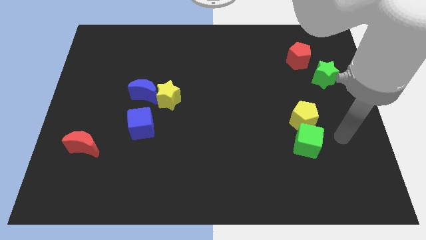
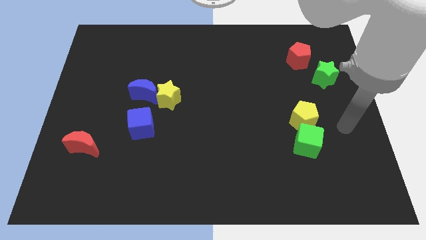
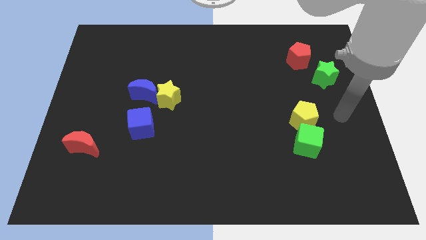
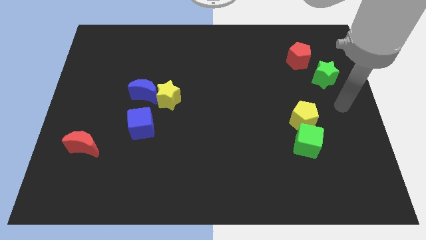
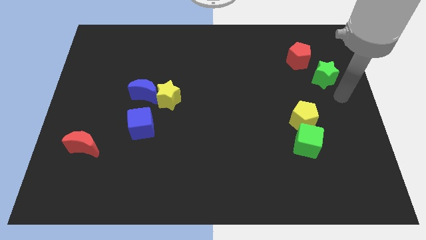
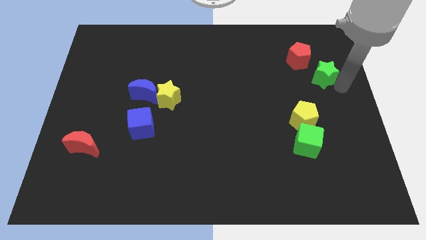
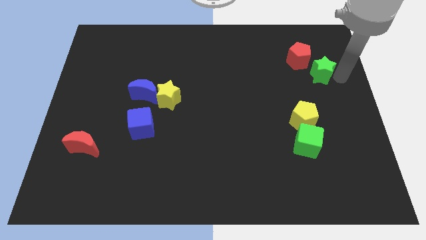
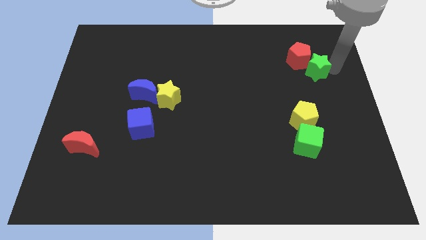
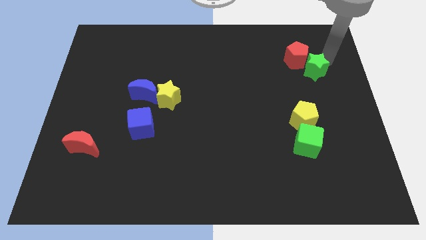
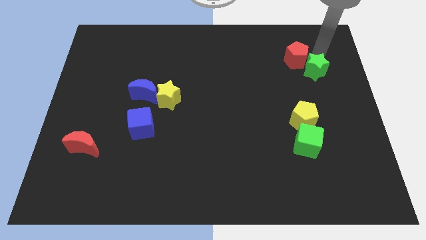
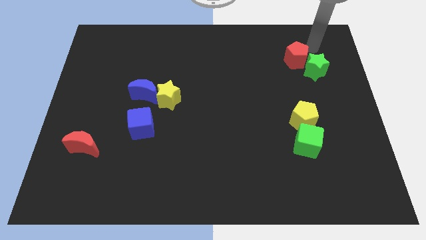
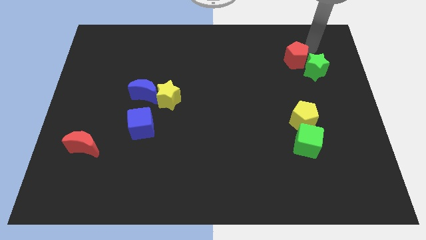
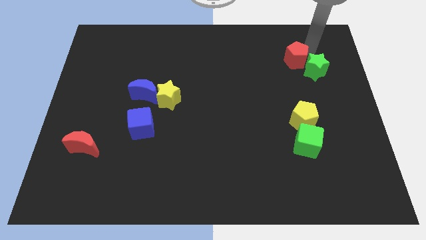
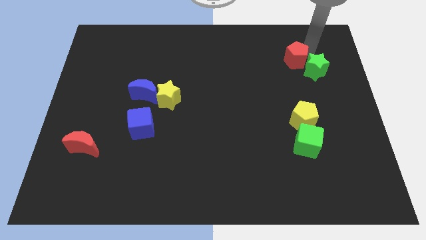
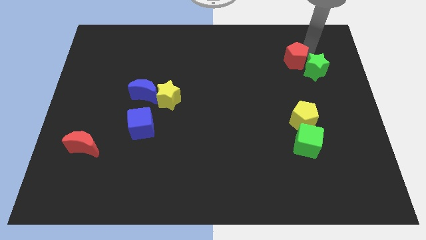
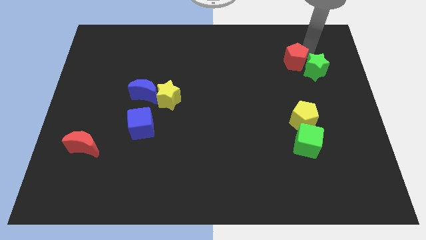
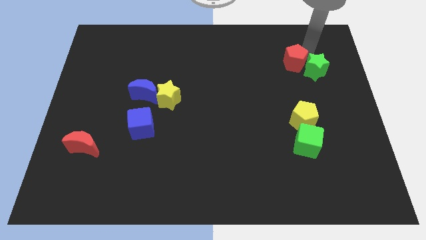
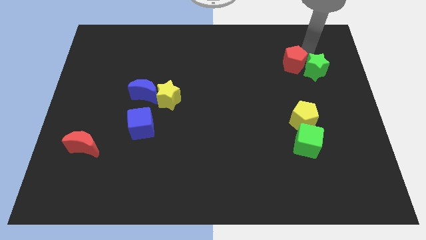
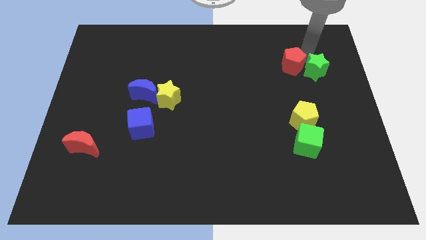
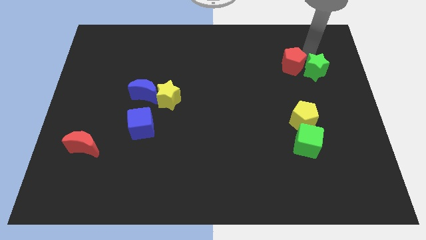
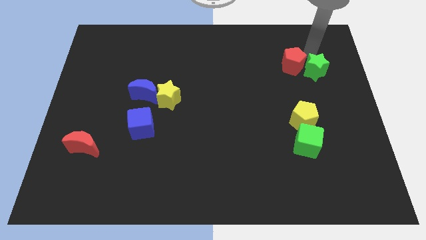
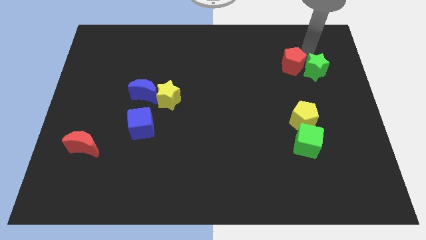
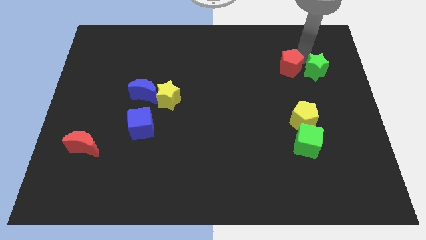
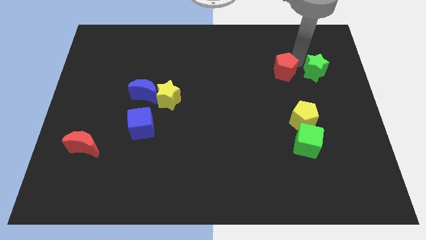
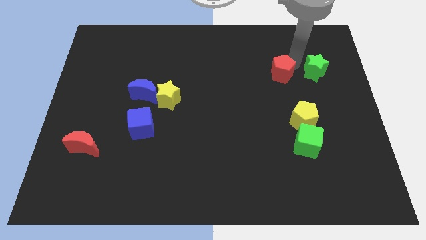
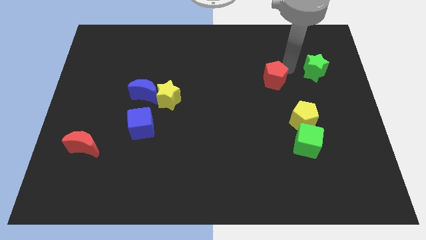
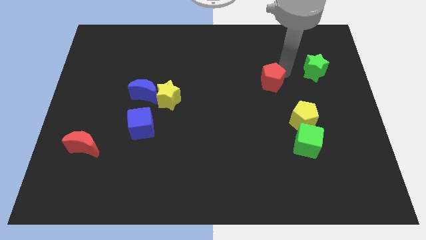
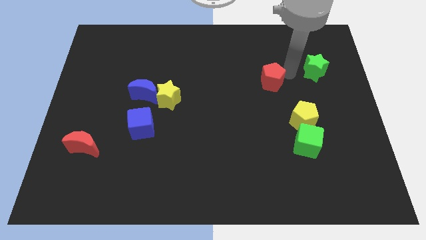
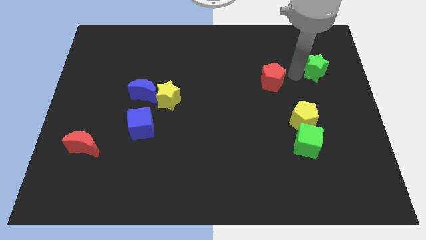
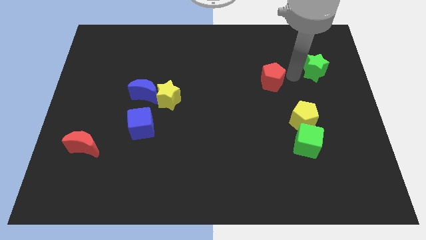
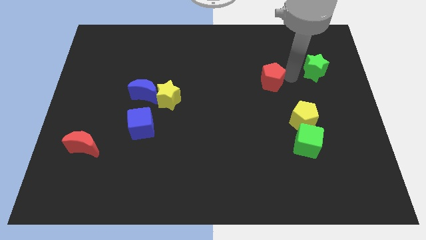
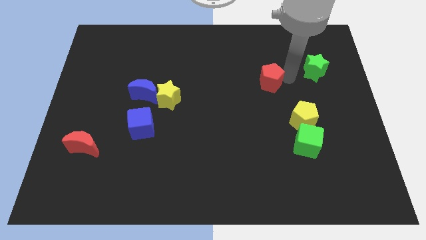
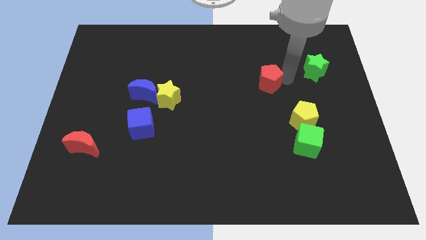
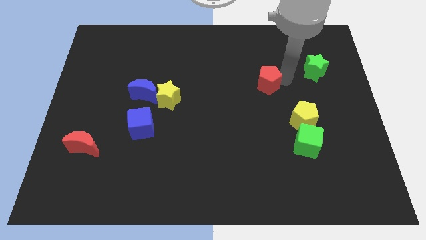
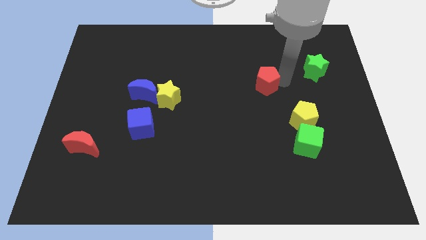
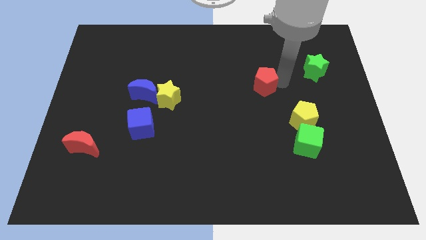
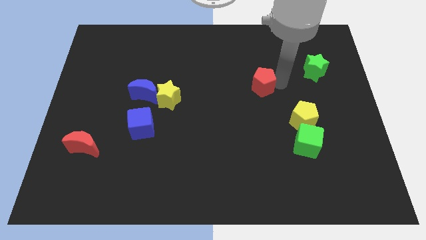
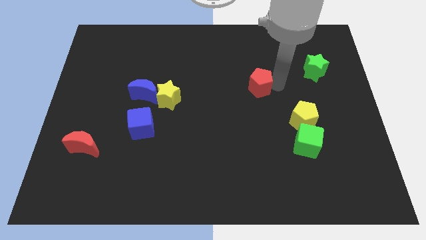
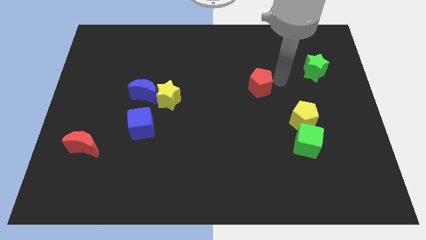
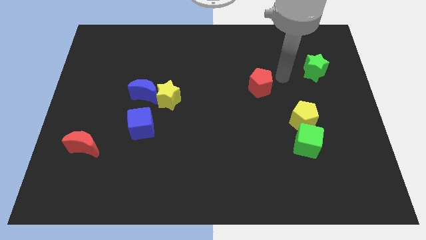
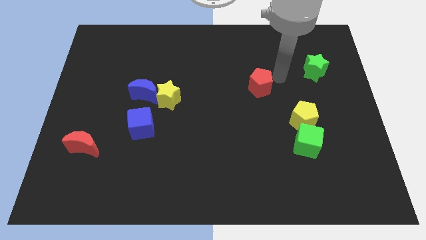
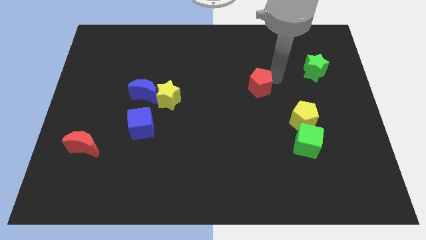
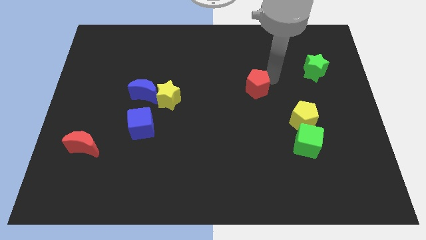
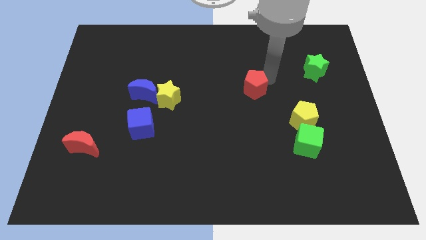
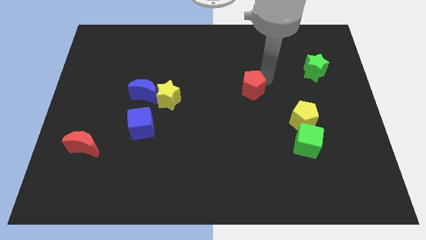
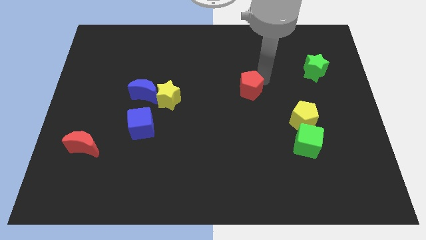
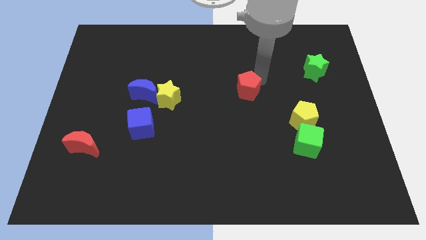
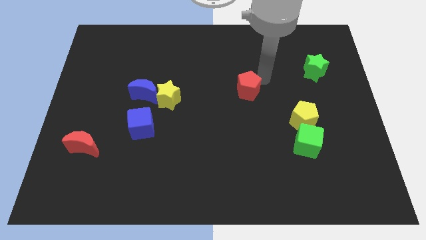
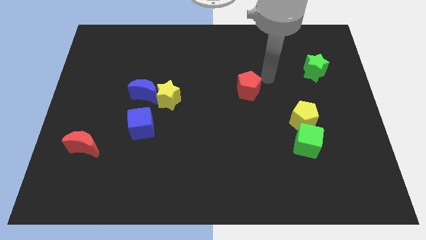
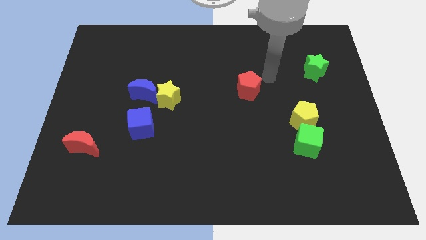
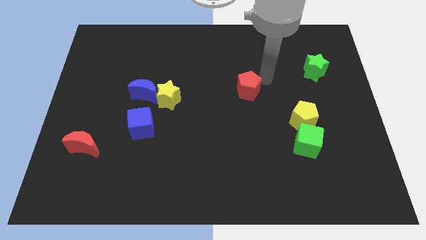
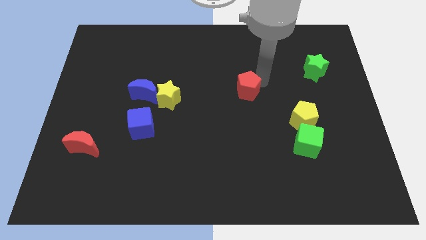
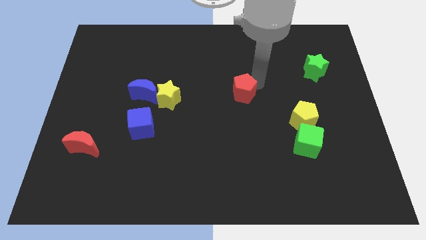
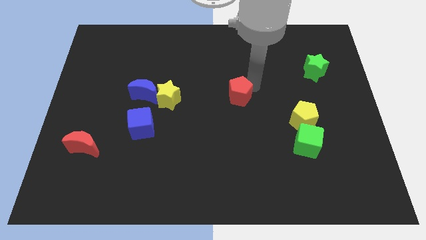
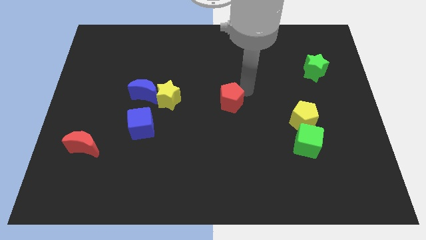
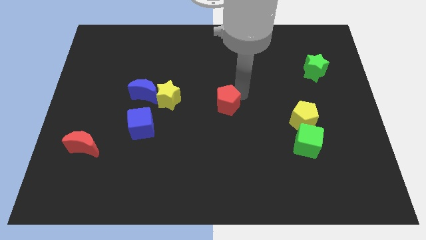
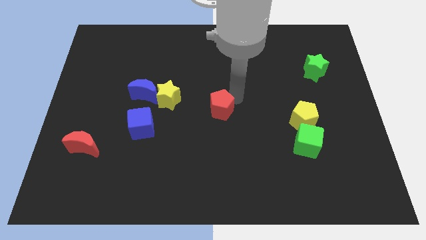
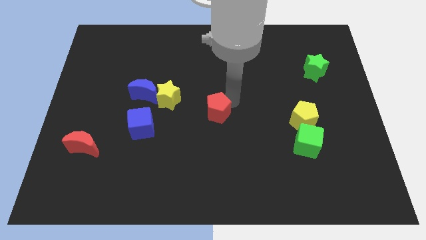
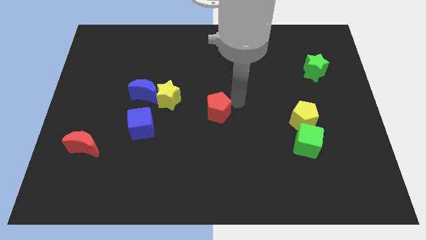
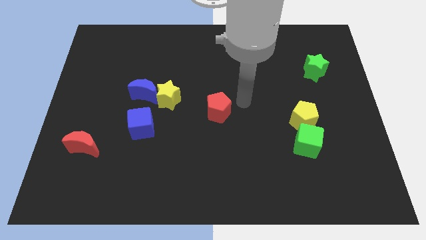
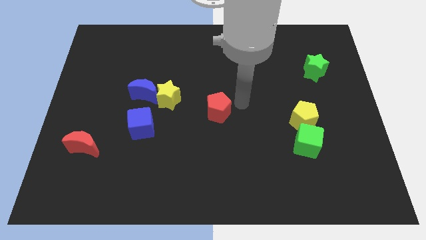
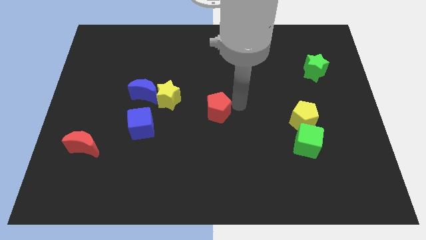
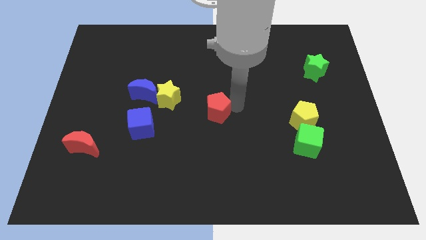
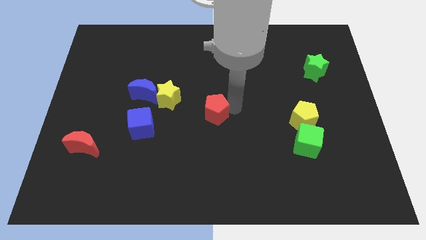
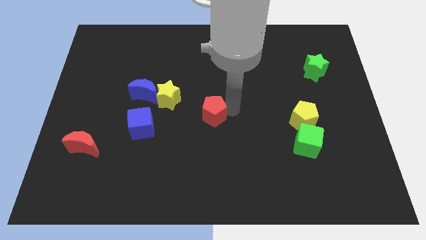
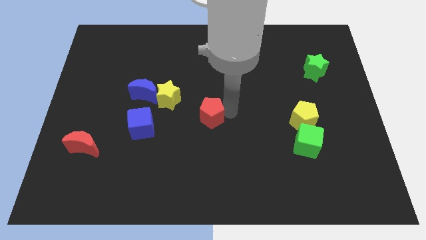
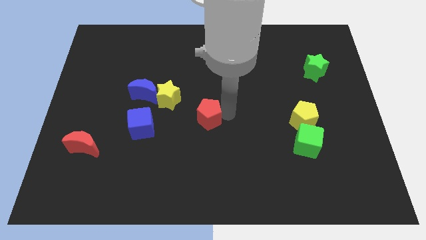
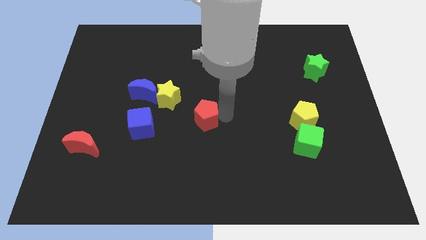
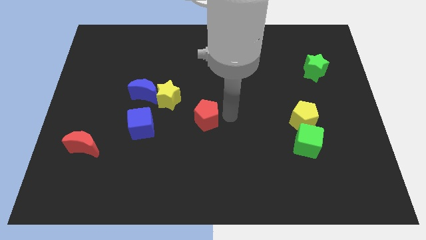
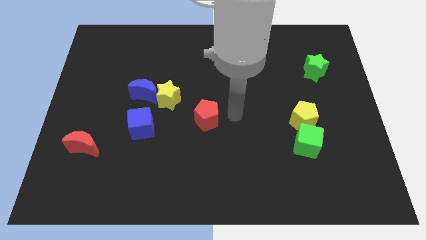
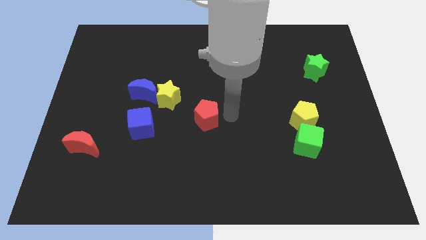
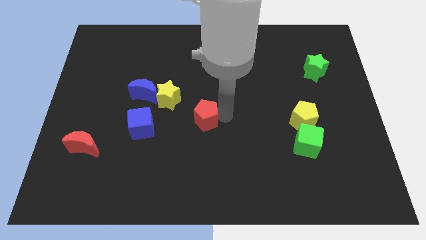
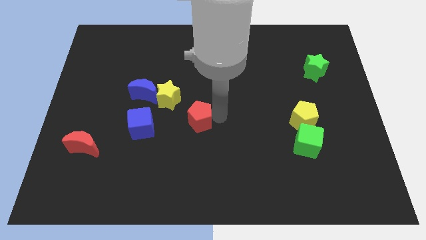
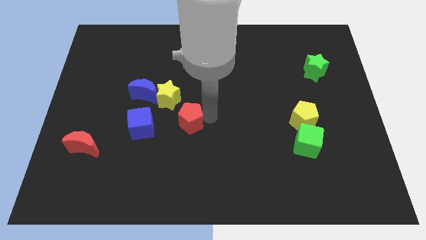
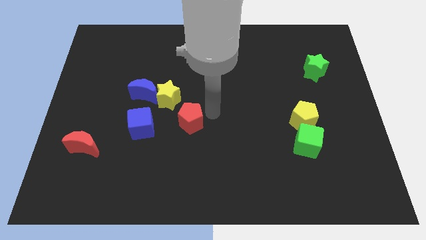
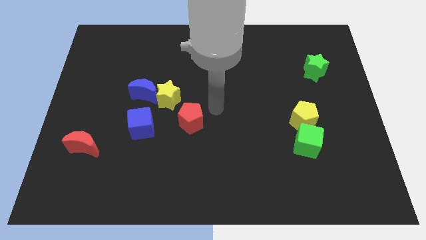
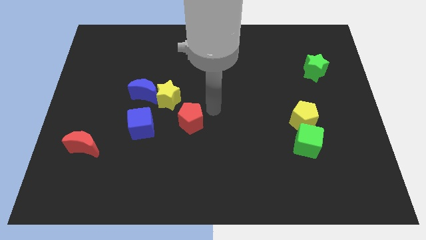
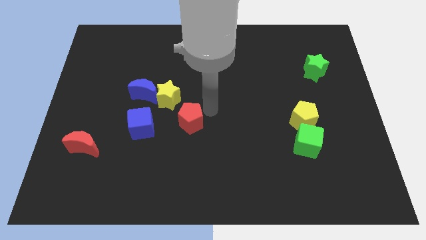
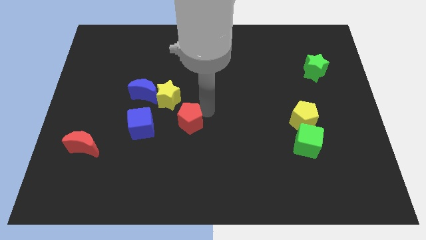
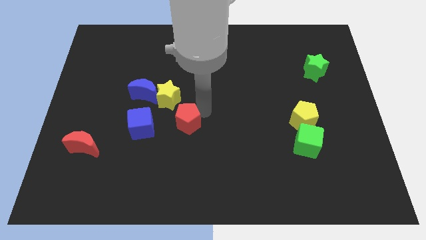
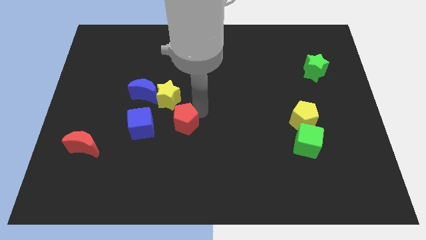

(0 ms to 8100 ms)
put the red pentagon to the bottom side of the yellow star
